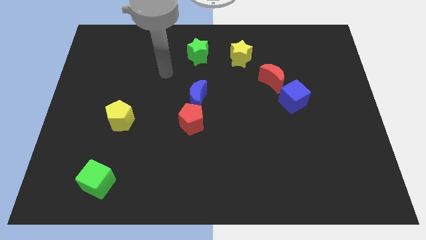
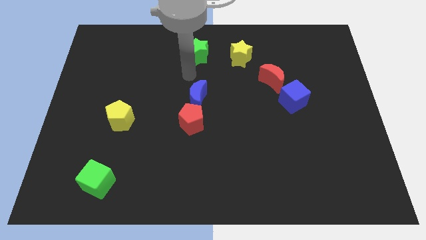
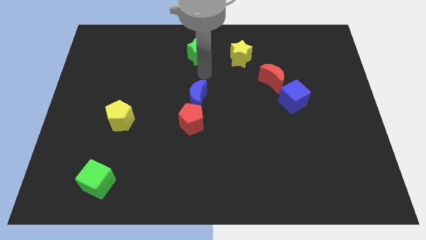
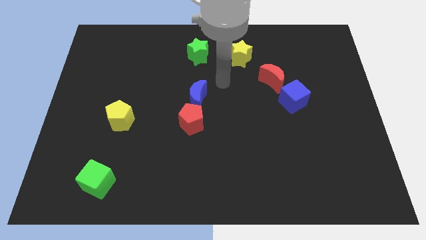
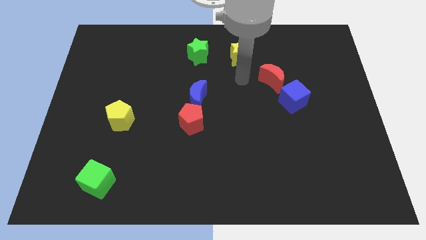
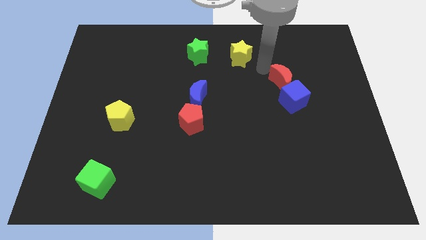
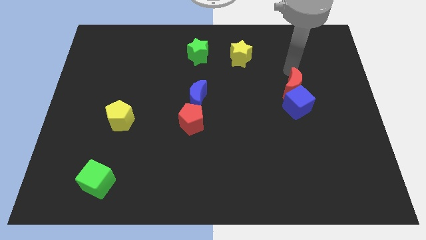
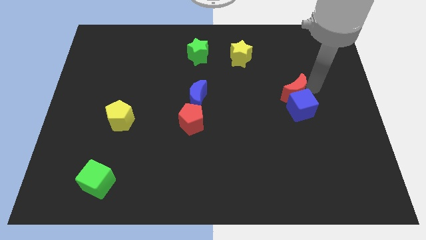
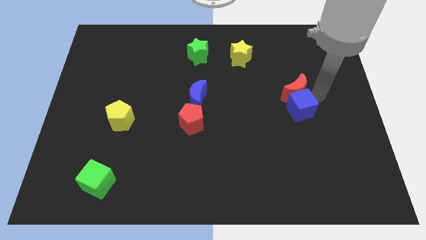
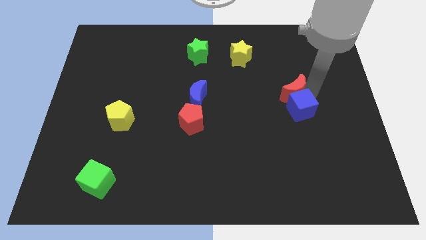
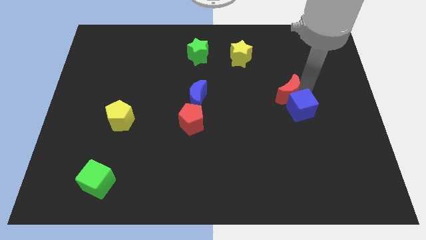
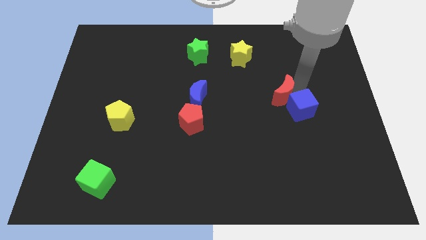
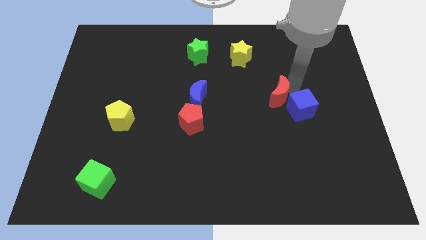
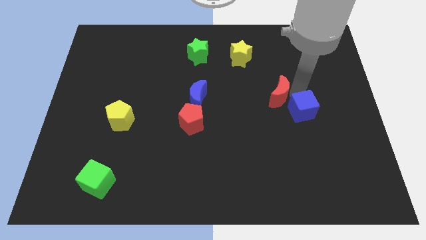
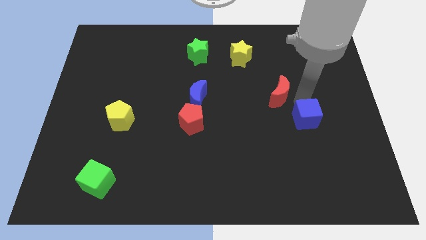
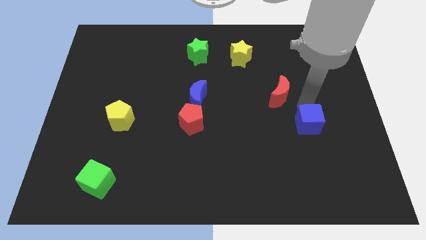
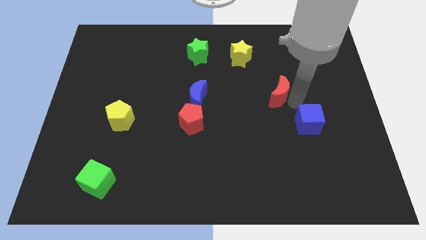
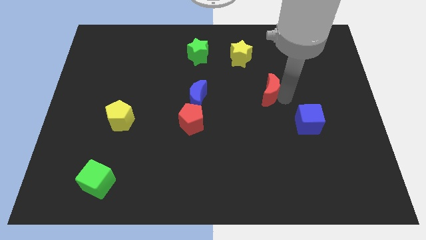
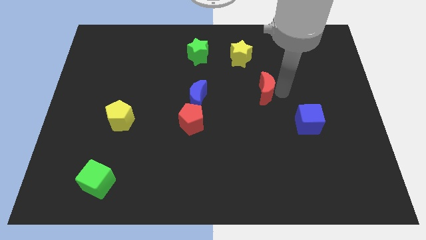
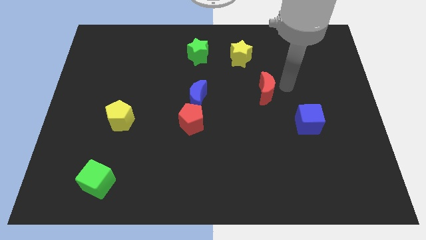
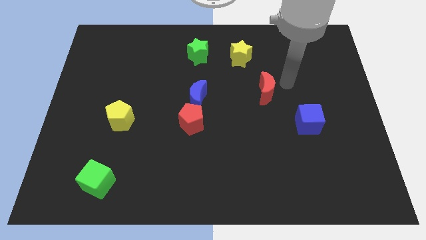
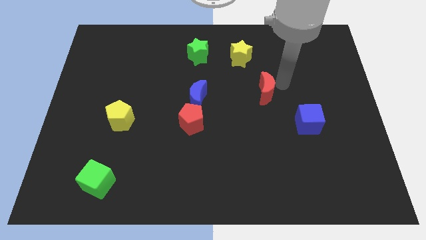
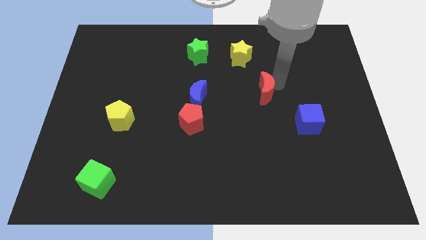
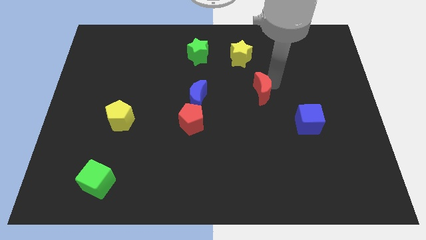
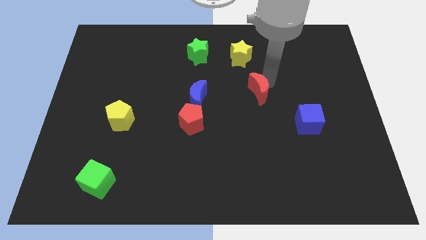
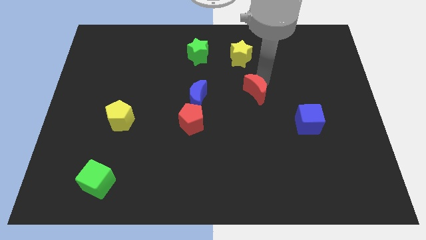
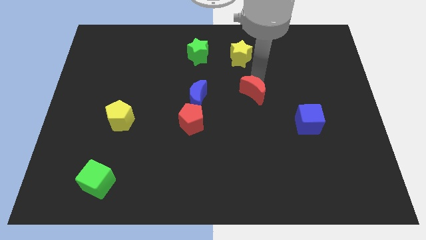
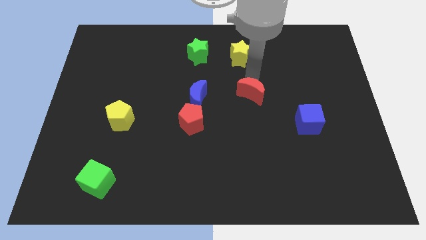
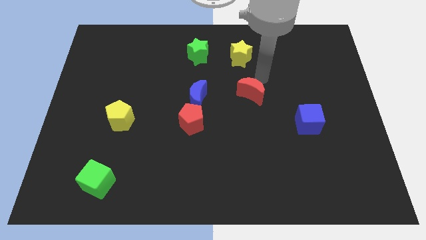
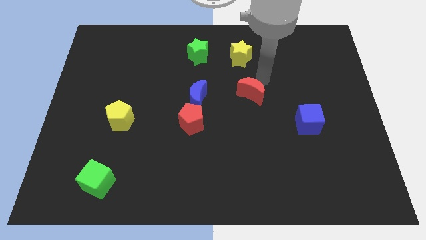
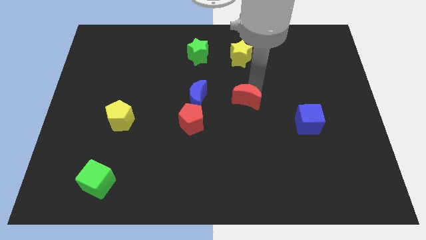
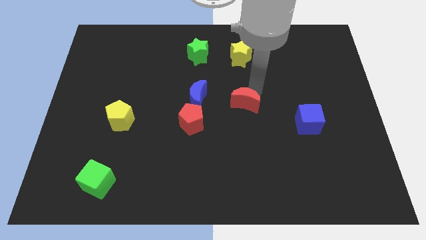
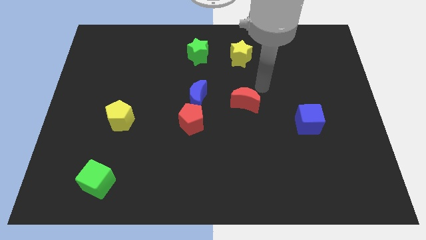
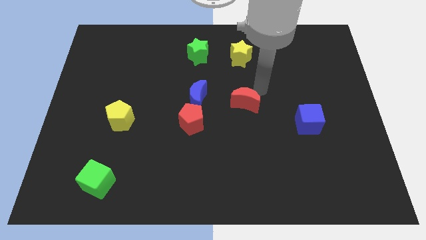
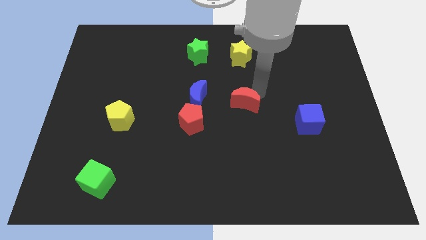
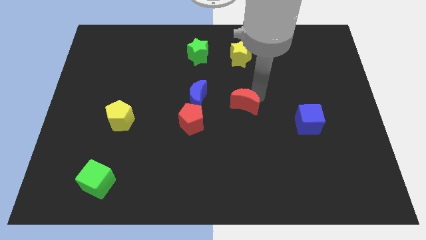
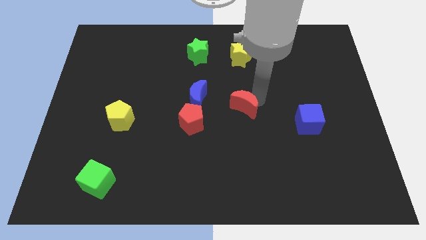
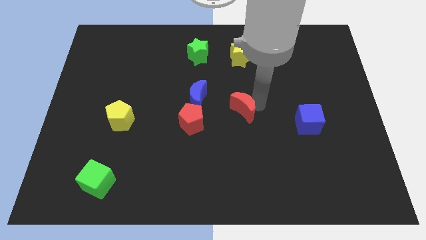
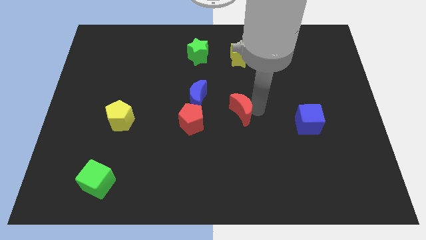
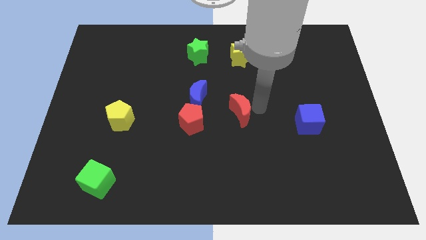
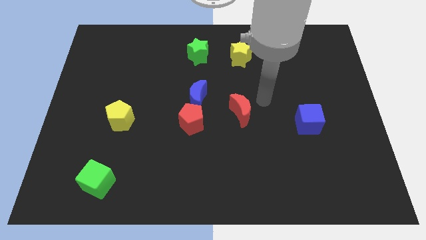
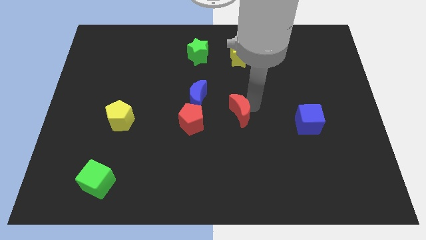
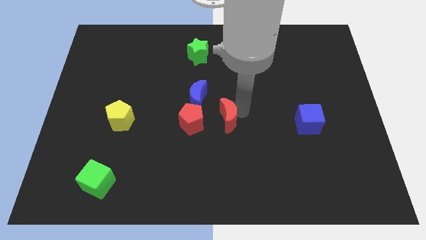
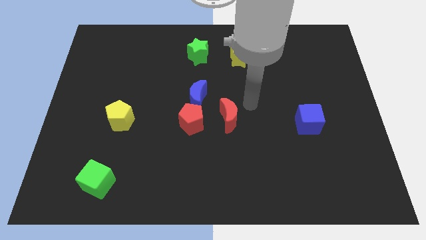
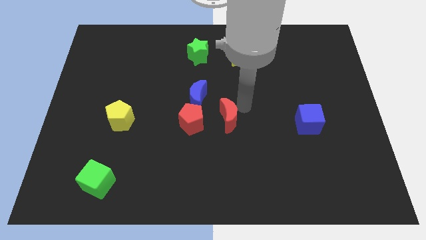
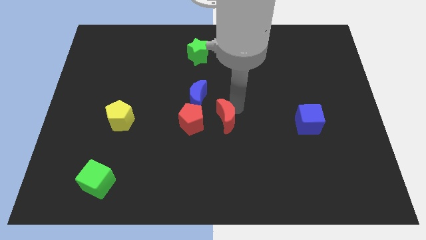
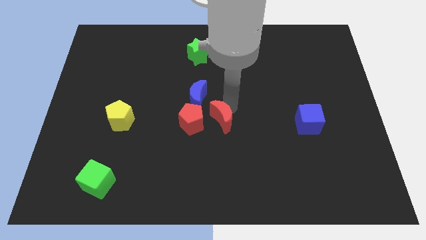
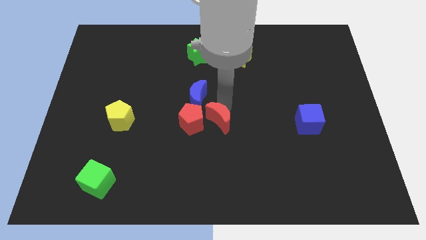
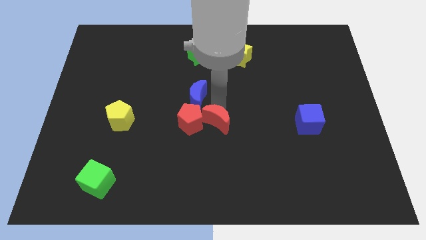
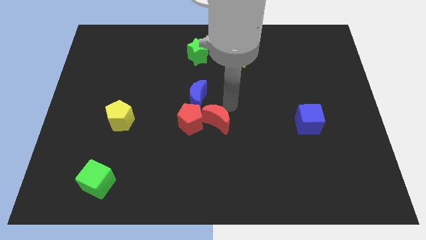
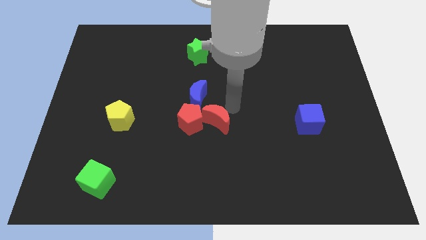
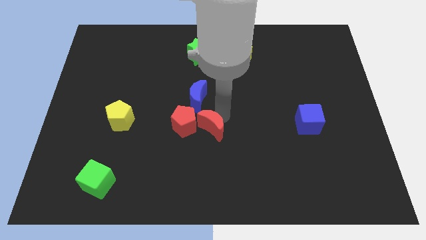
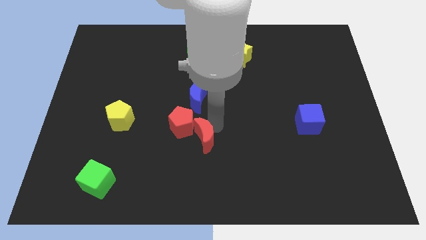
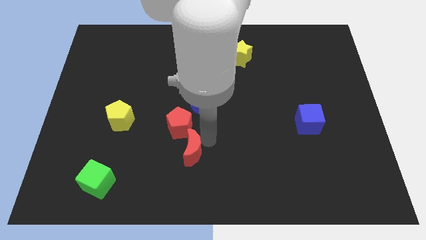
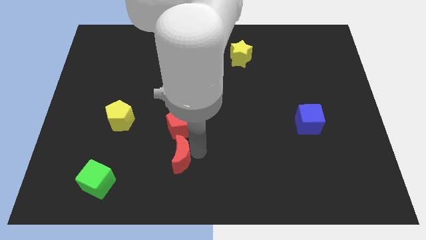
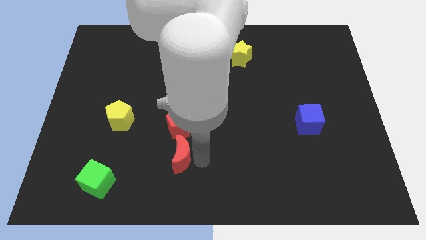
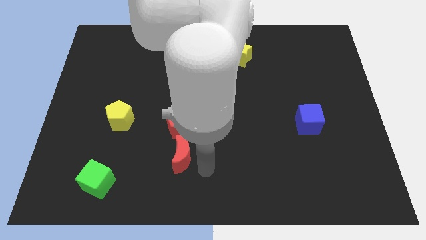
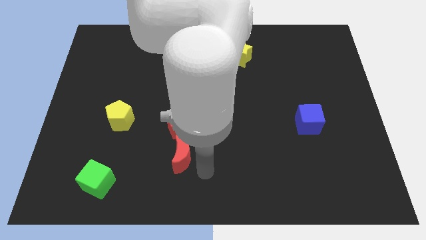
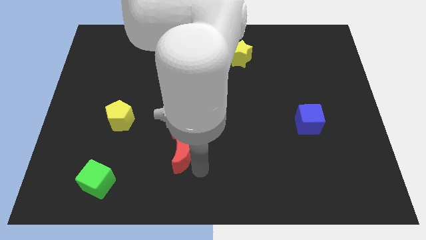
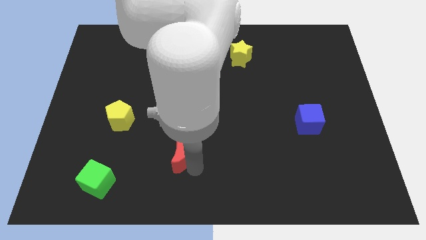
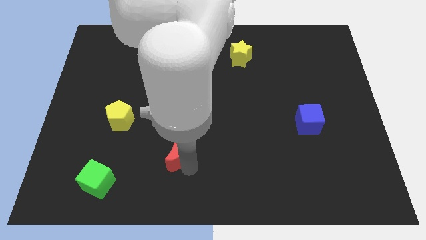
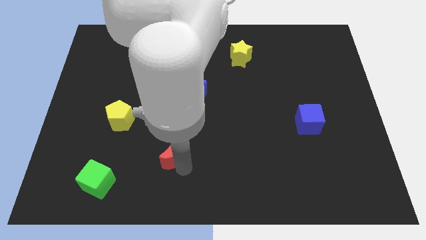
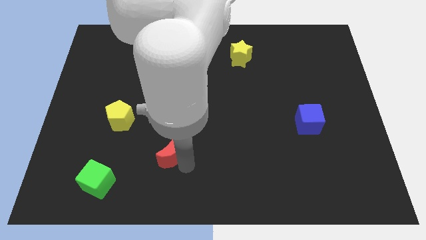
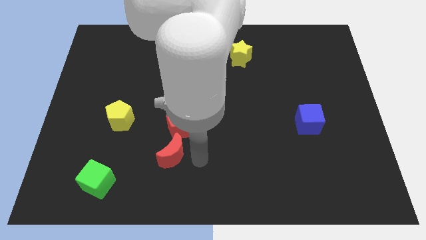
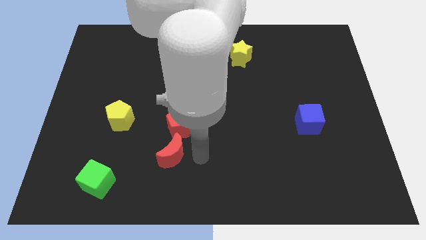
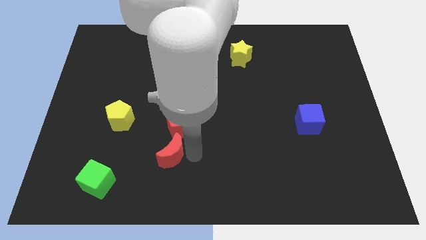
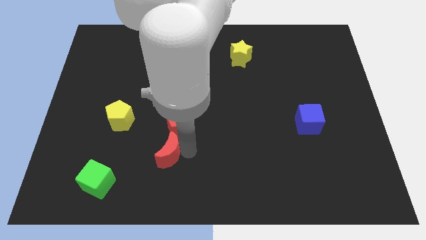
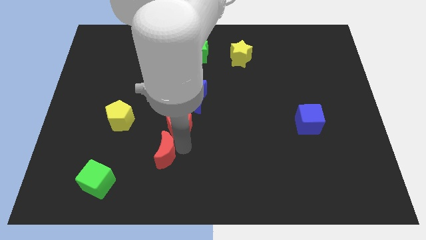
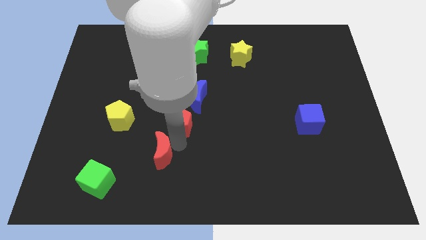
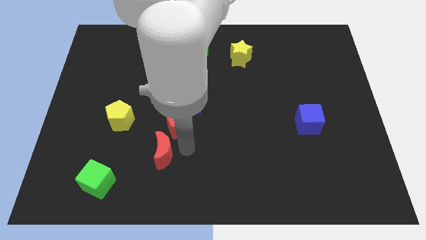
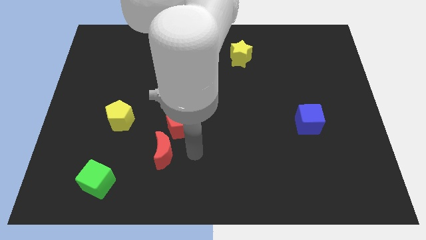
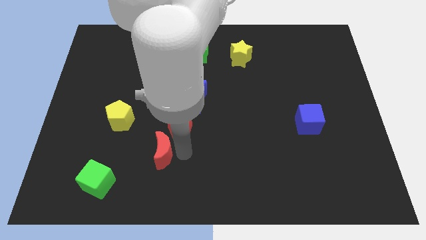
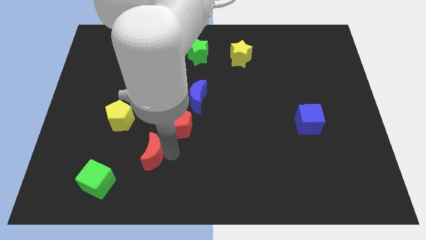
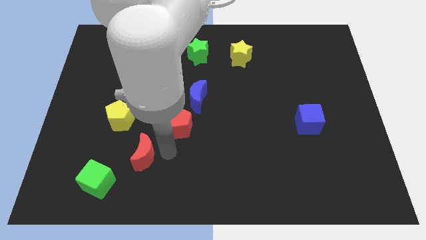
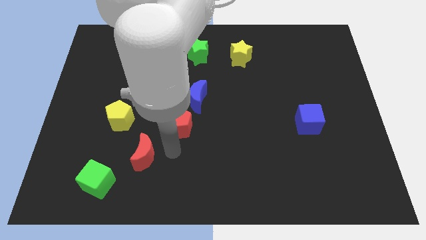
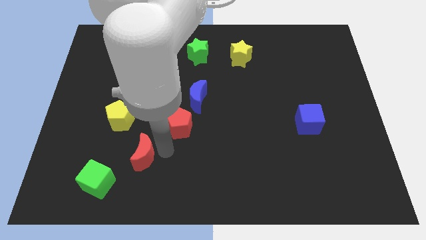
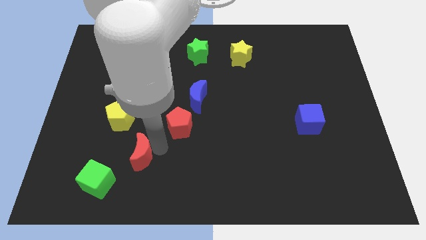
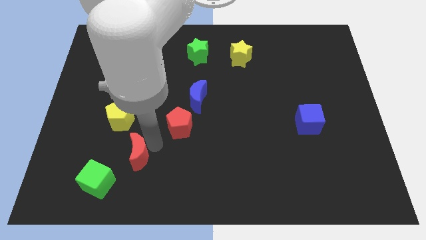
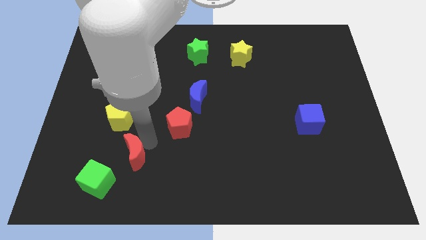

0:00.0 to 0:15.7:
put the red moon below the yellow pentagon
